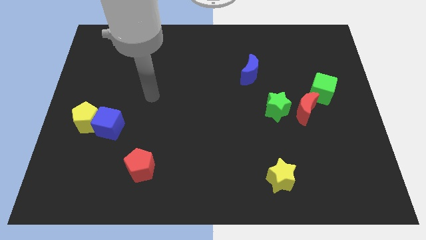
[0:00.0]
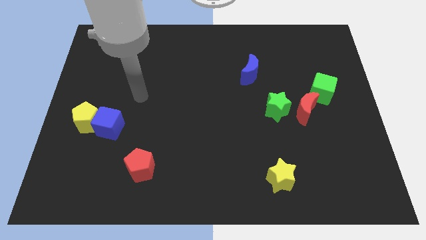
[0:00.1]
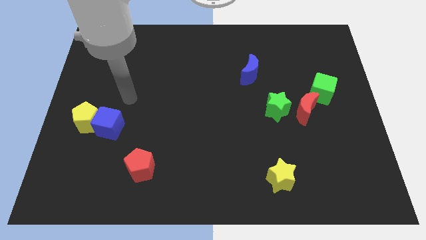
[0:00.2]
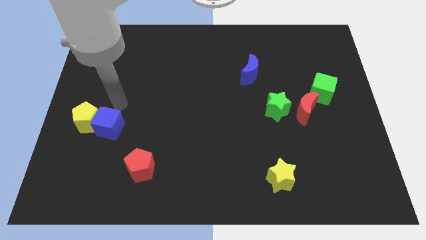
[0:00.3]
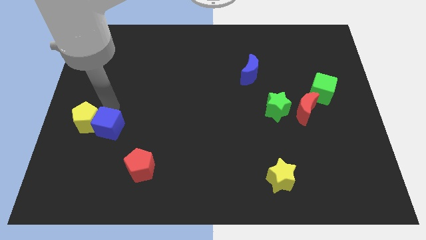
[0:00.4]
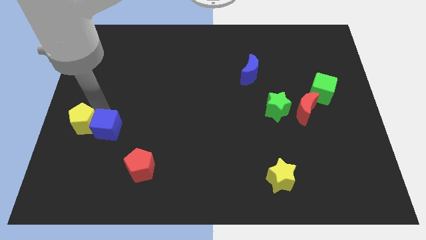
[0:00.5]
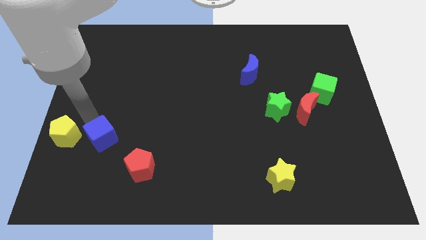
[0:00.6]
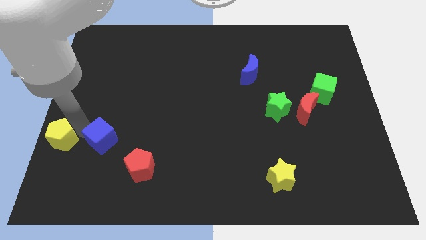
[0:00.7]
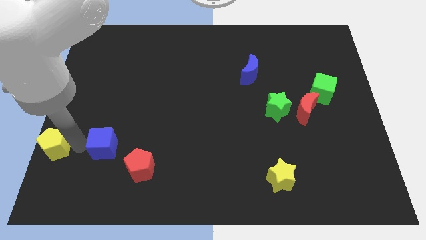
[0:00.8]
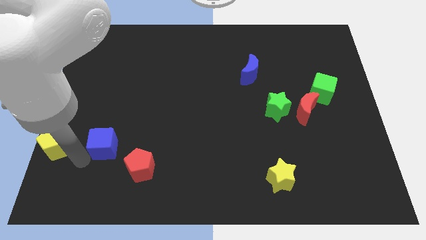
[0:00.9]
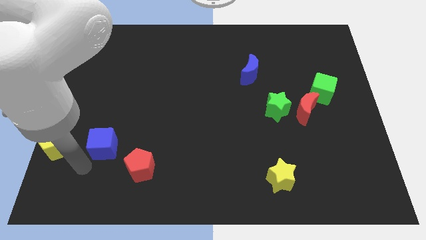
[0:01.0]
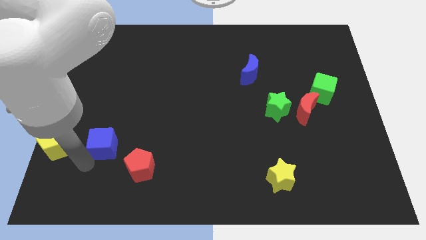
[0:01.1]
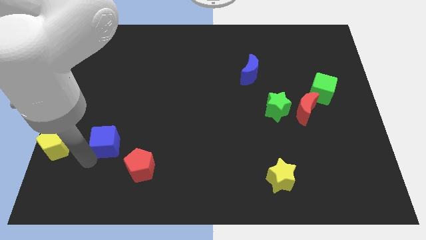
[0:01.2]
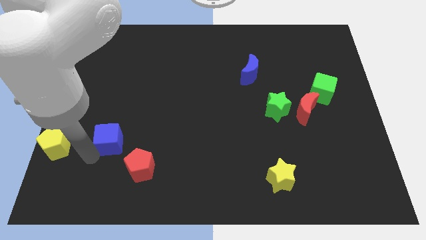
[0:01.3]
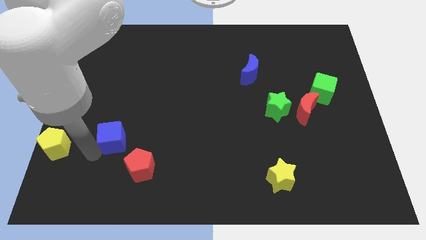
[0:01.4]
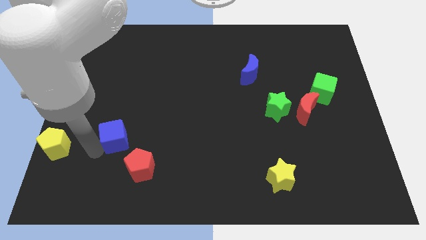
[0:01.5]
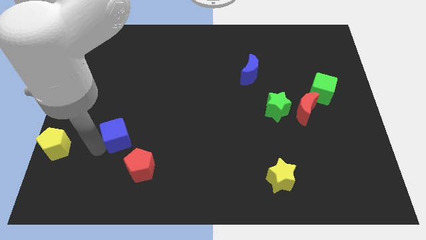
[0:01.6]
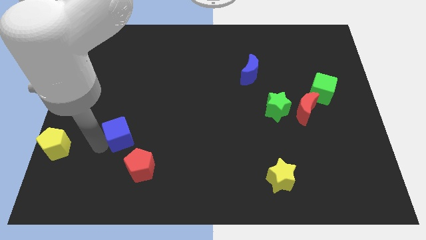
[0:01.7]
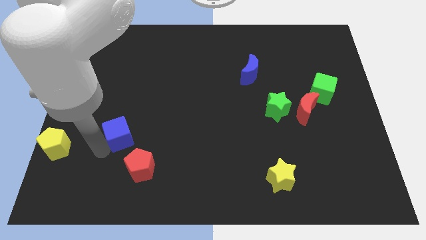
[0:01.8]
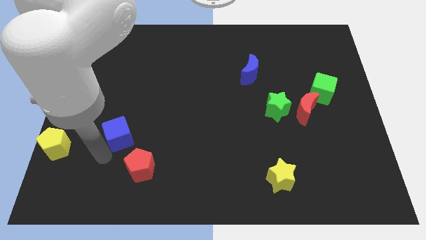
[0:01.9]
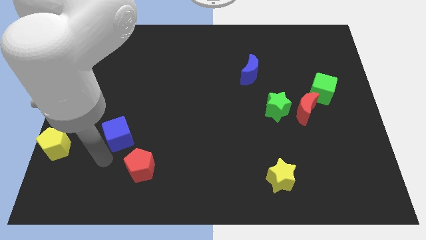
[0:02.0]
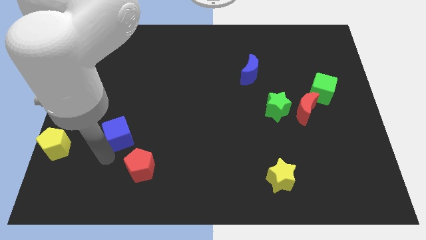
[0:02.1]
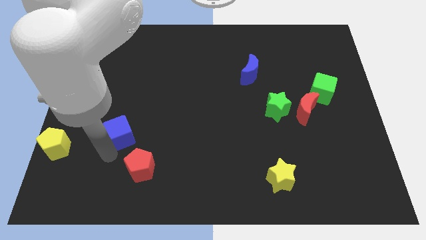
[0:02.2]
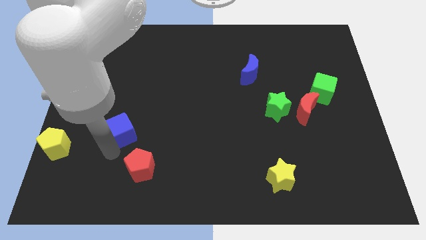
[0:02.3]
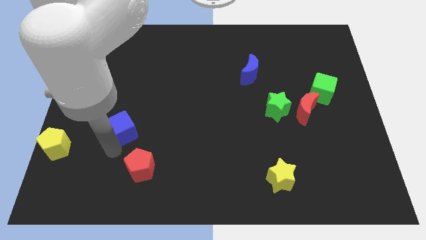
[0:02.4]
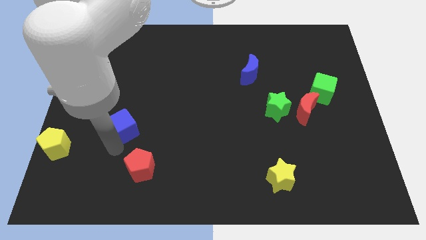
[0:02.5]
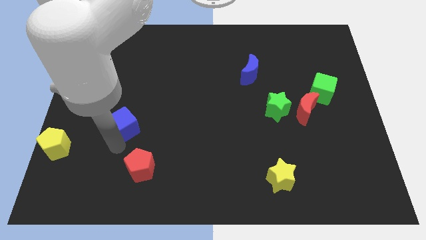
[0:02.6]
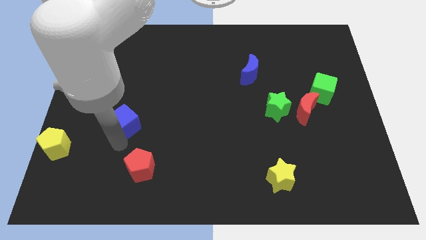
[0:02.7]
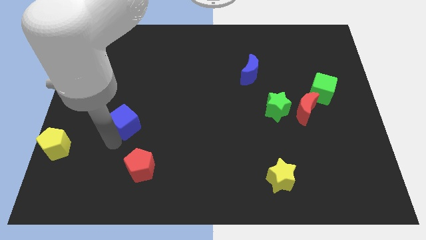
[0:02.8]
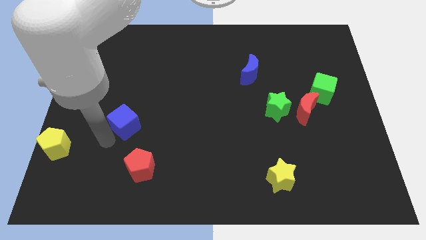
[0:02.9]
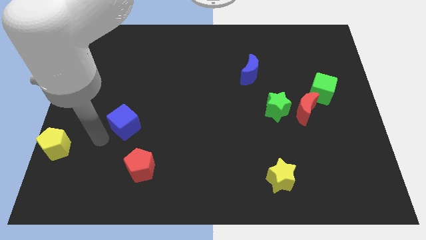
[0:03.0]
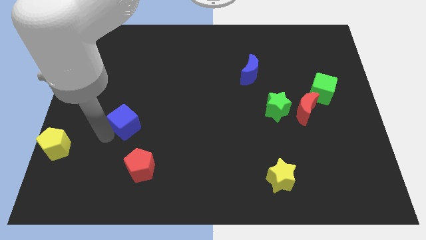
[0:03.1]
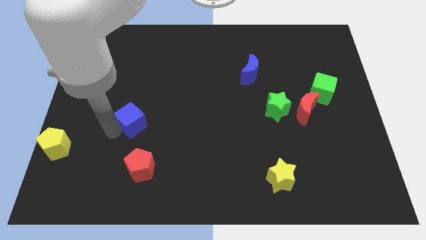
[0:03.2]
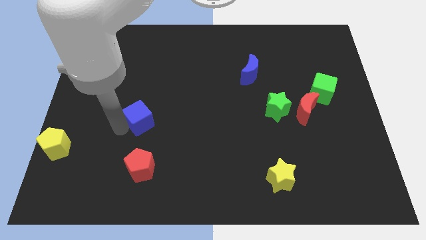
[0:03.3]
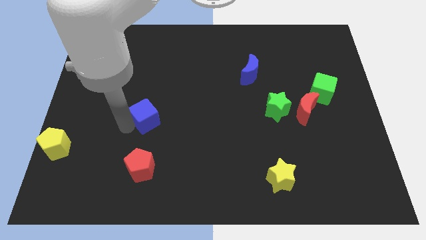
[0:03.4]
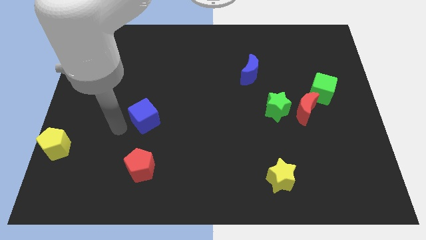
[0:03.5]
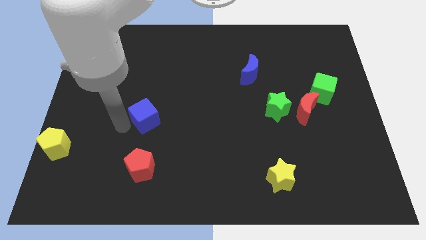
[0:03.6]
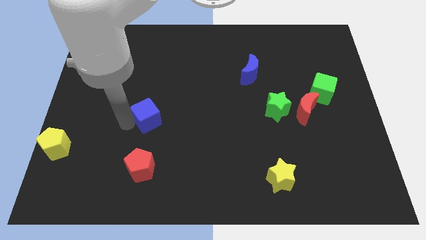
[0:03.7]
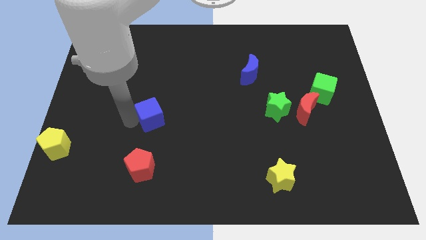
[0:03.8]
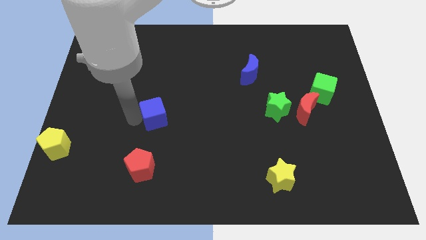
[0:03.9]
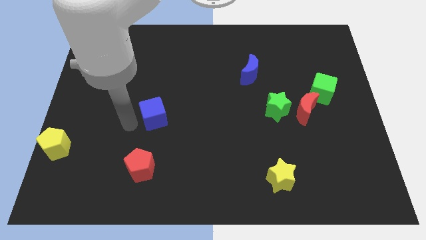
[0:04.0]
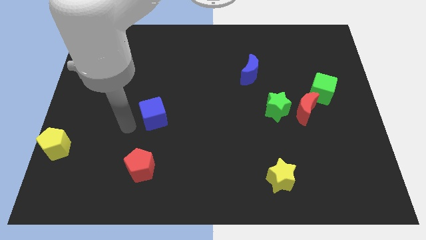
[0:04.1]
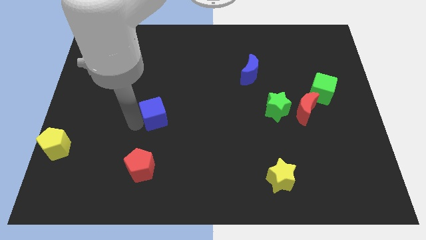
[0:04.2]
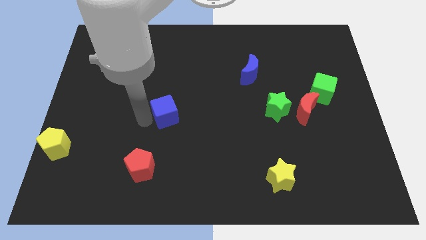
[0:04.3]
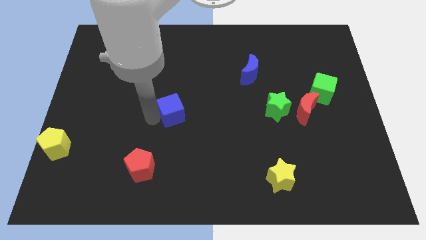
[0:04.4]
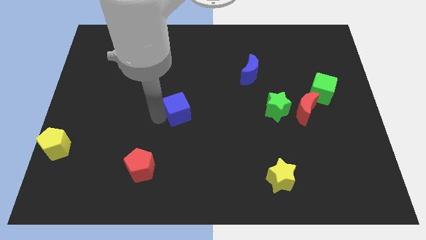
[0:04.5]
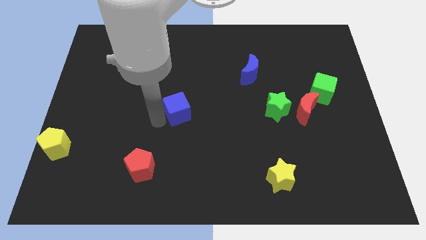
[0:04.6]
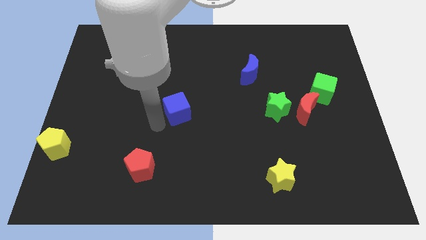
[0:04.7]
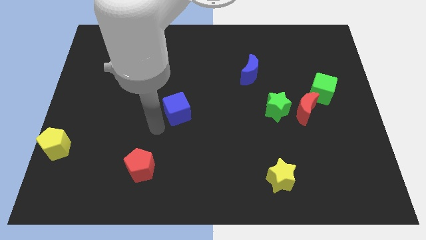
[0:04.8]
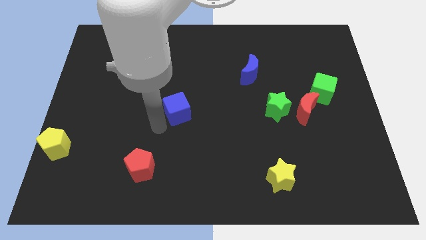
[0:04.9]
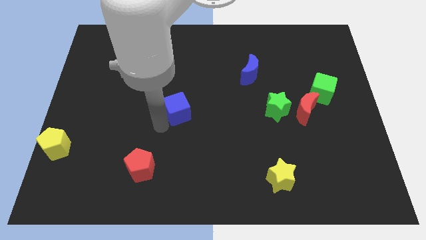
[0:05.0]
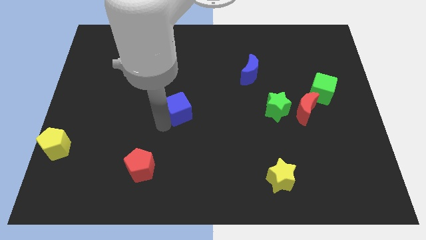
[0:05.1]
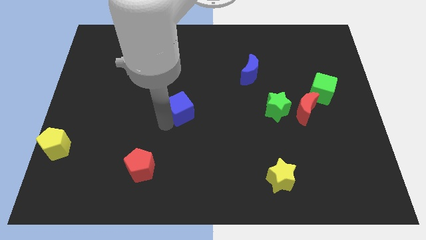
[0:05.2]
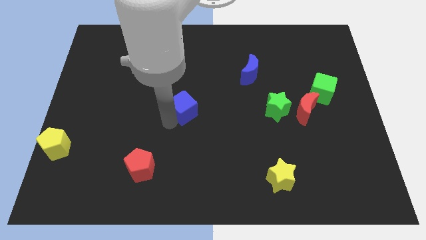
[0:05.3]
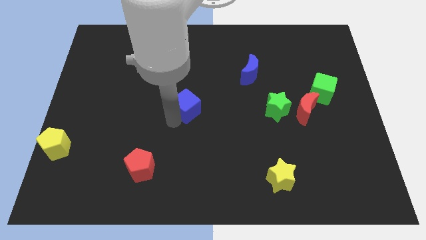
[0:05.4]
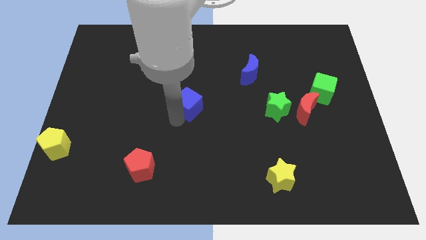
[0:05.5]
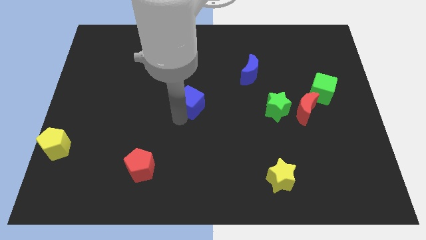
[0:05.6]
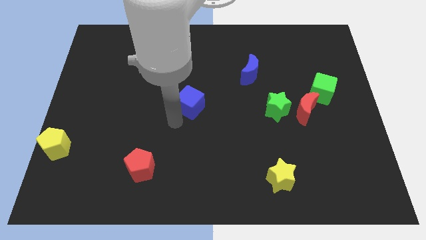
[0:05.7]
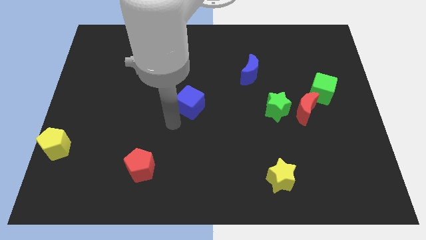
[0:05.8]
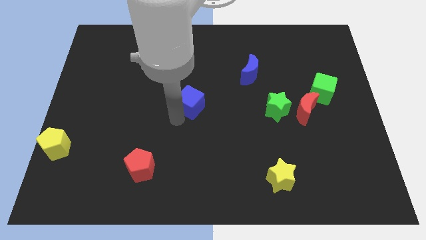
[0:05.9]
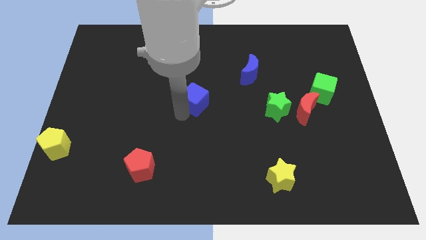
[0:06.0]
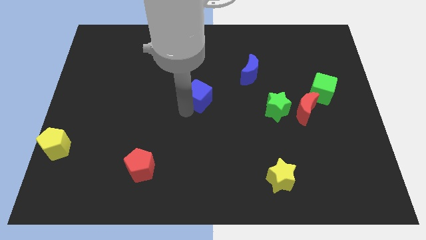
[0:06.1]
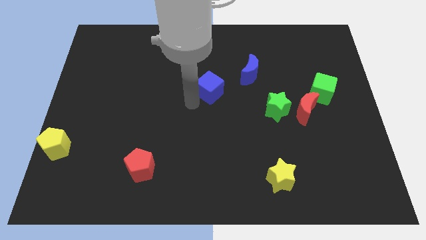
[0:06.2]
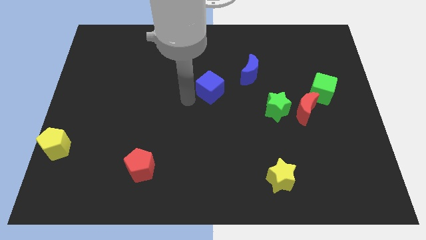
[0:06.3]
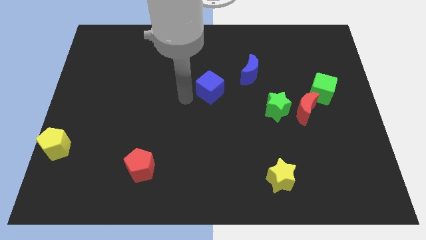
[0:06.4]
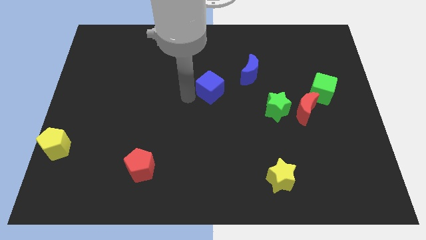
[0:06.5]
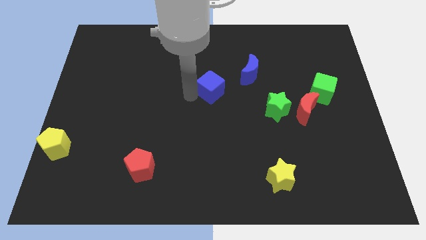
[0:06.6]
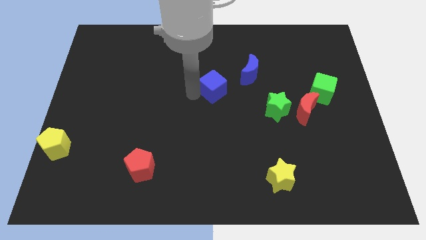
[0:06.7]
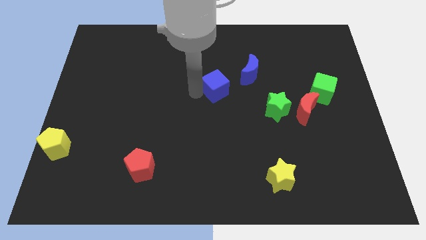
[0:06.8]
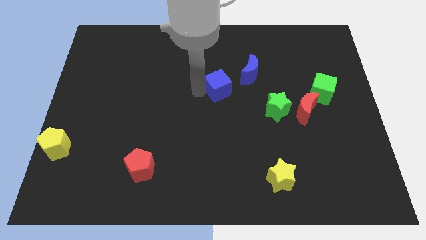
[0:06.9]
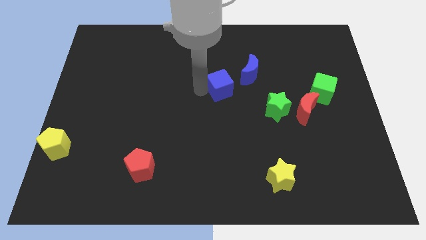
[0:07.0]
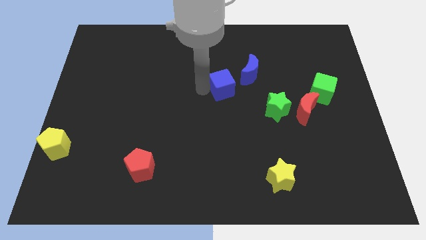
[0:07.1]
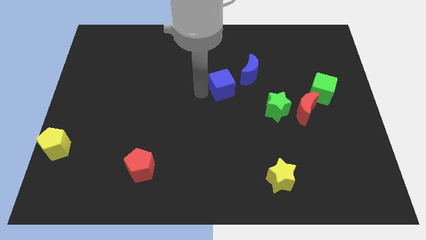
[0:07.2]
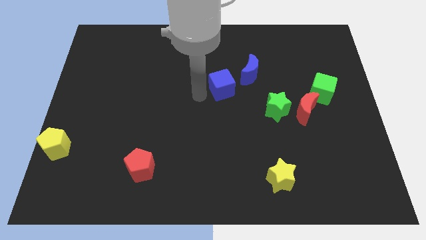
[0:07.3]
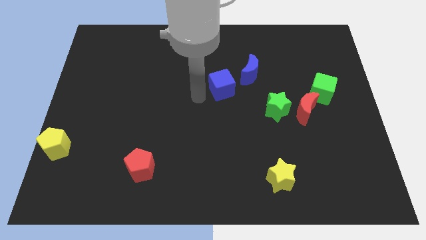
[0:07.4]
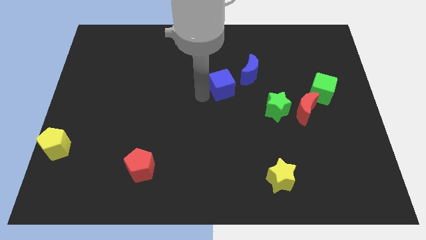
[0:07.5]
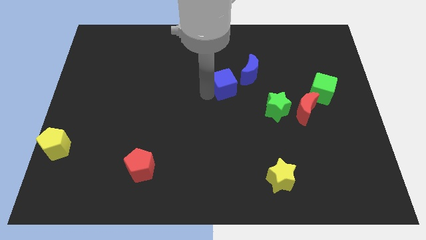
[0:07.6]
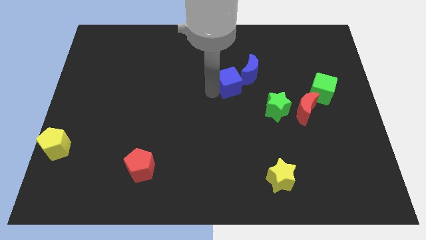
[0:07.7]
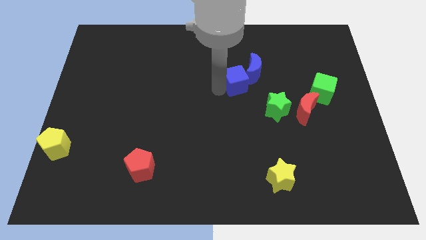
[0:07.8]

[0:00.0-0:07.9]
push the blue cube close to the blue moon
